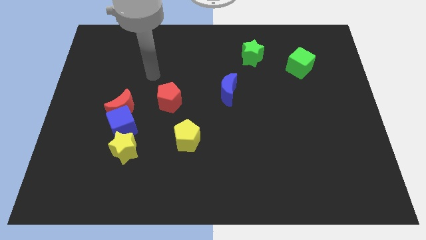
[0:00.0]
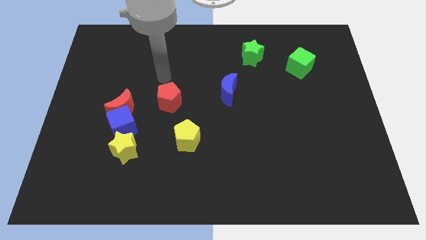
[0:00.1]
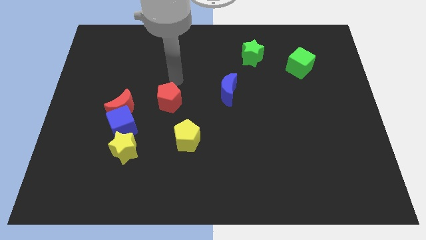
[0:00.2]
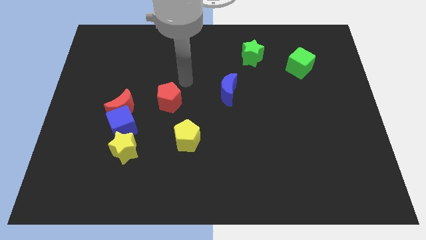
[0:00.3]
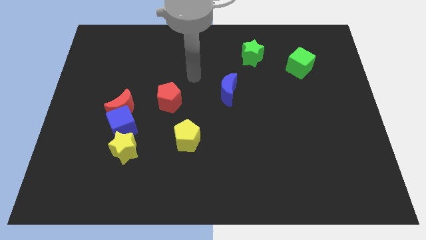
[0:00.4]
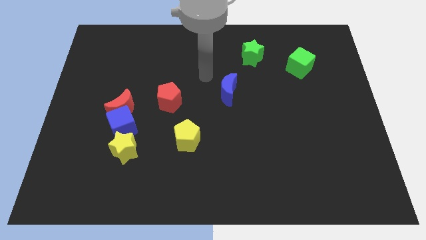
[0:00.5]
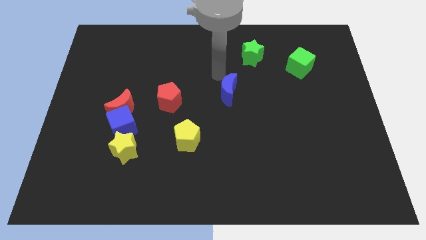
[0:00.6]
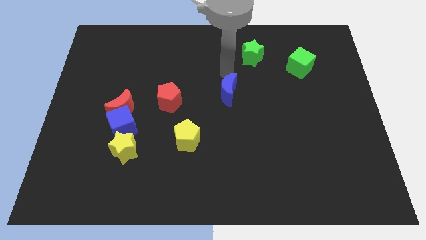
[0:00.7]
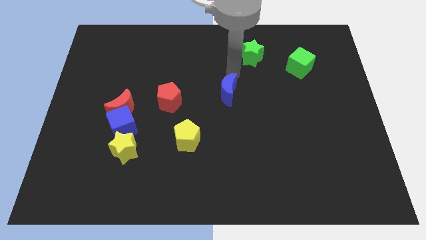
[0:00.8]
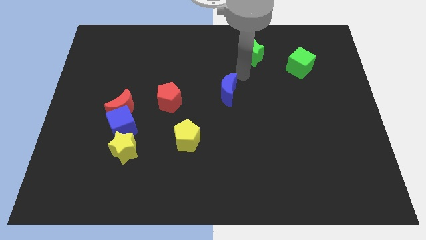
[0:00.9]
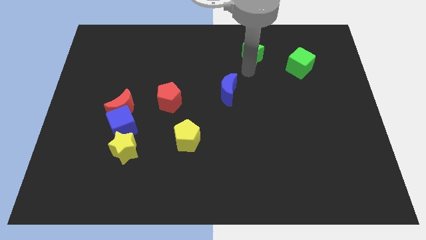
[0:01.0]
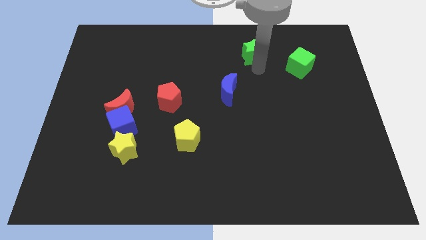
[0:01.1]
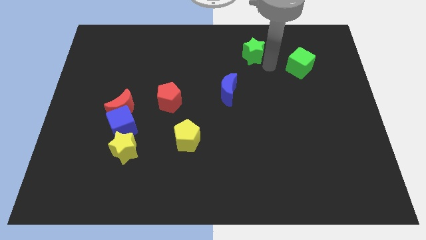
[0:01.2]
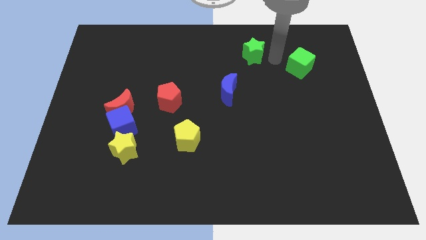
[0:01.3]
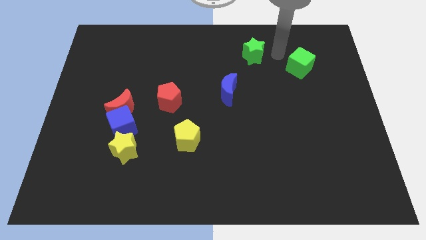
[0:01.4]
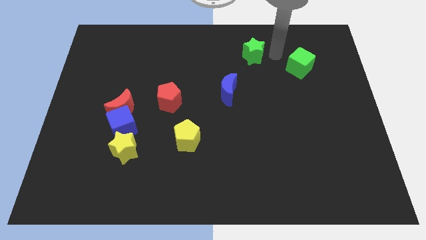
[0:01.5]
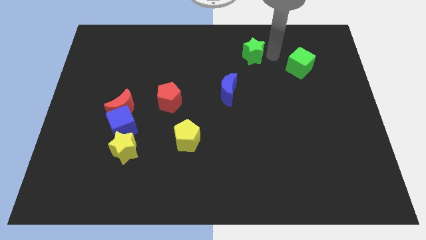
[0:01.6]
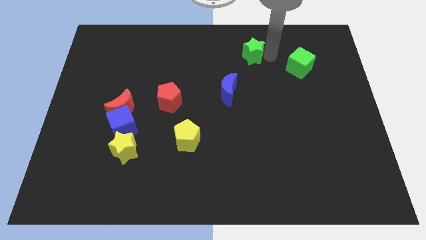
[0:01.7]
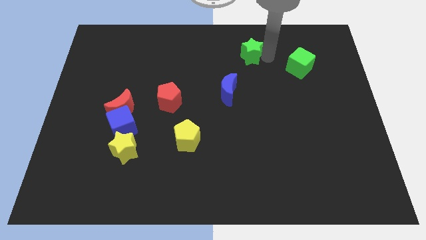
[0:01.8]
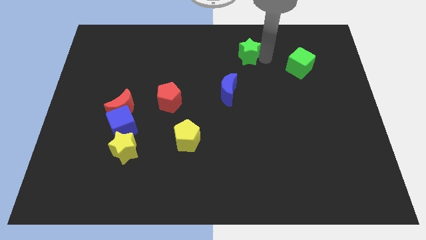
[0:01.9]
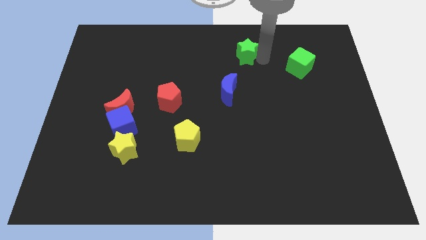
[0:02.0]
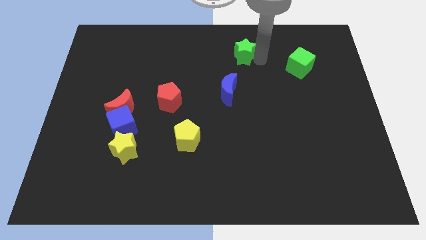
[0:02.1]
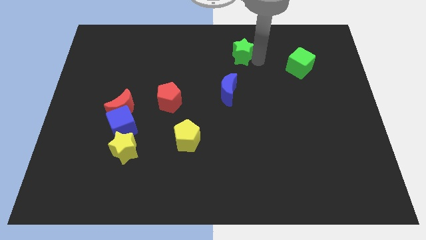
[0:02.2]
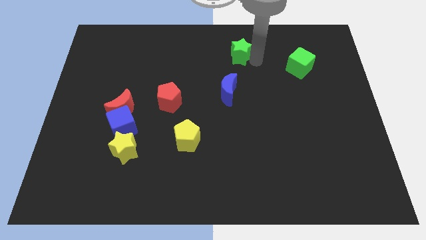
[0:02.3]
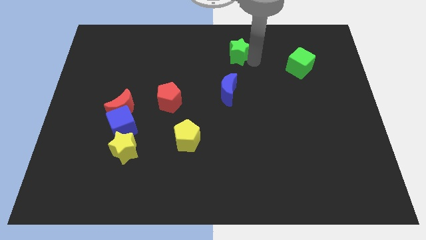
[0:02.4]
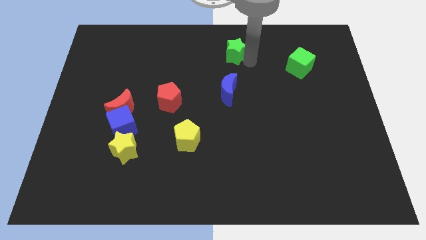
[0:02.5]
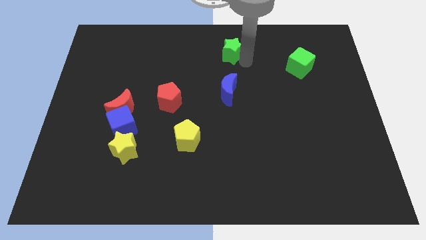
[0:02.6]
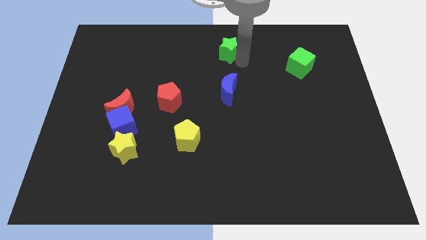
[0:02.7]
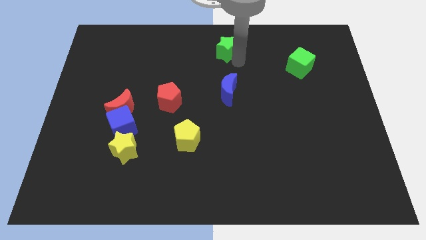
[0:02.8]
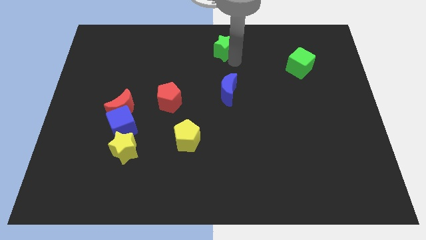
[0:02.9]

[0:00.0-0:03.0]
move the green star to the left slightly

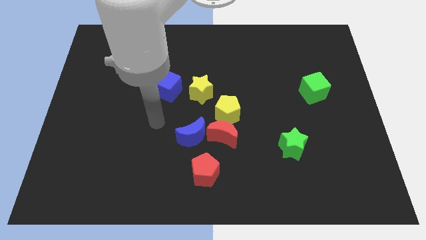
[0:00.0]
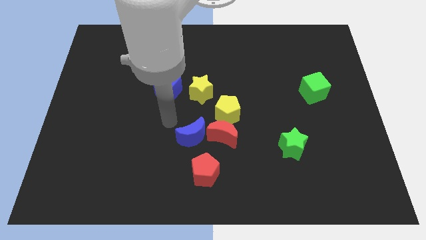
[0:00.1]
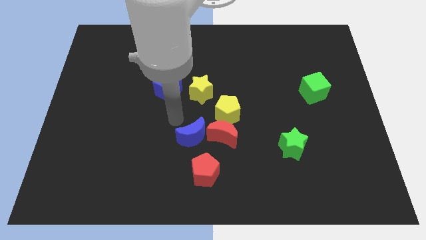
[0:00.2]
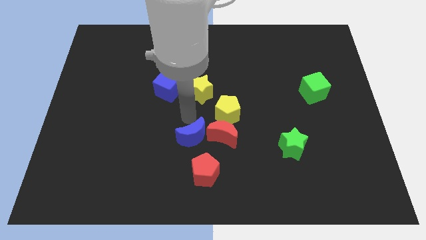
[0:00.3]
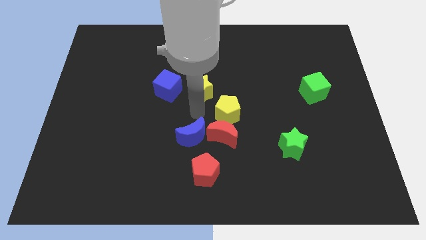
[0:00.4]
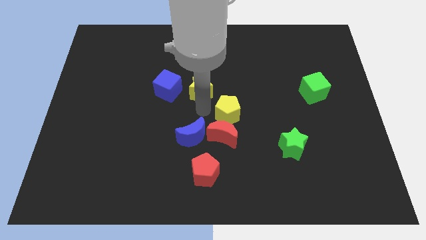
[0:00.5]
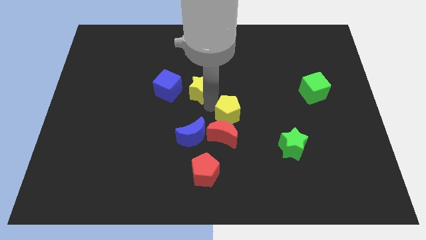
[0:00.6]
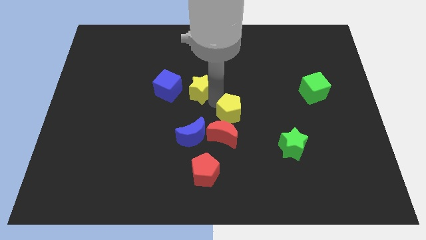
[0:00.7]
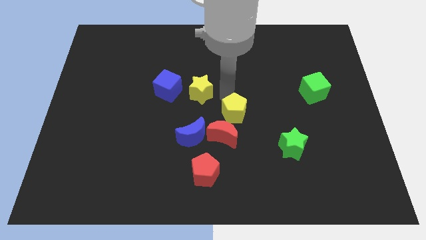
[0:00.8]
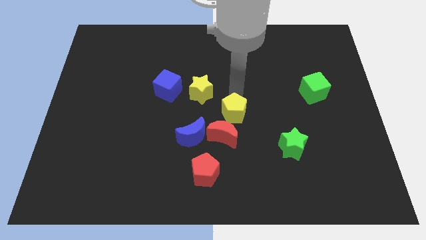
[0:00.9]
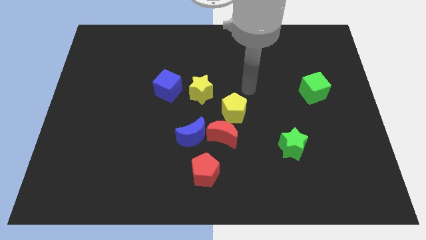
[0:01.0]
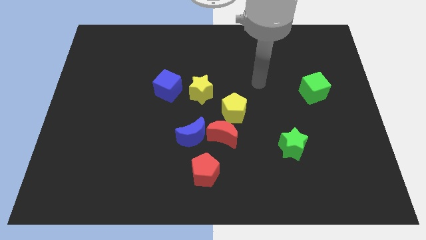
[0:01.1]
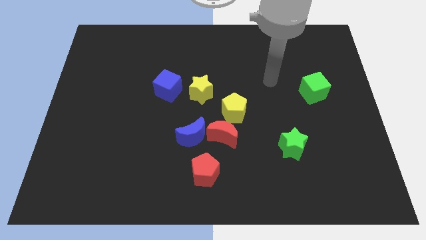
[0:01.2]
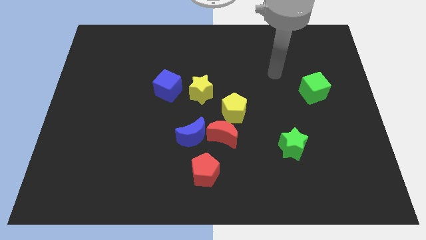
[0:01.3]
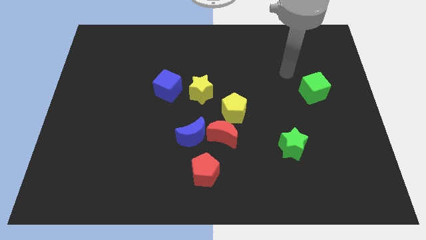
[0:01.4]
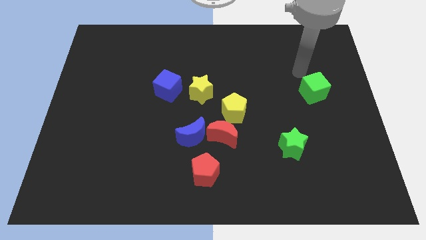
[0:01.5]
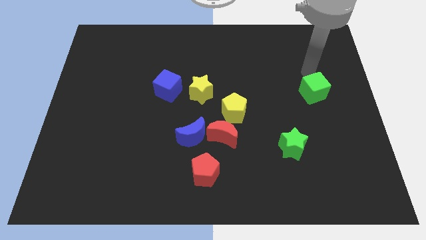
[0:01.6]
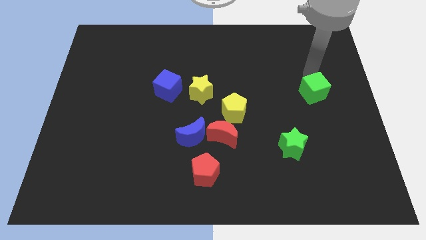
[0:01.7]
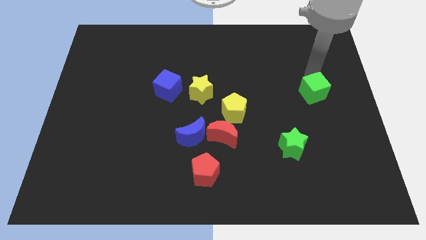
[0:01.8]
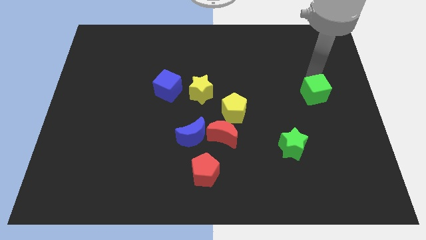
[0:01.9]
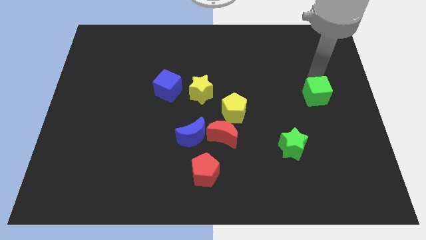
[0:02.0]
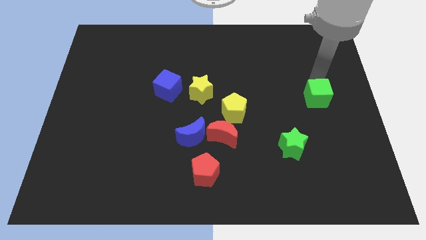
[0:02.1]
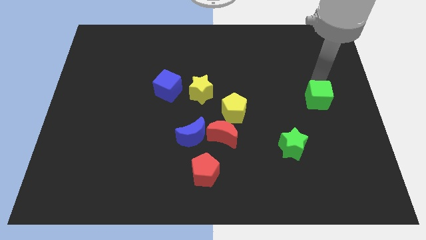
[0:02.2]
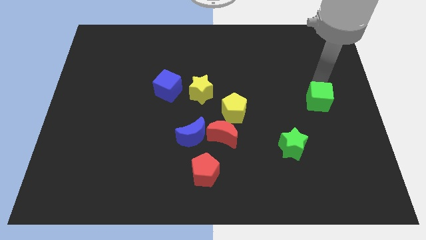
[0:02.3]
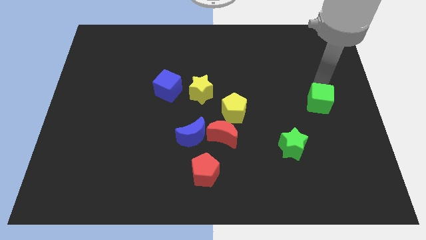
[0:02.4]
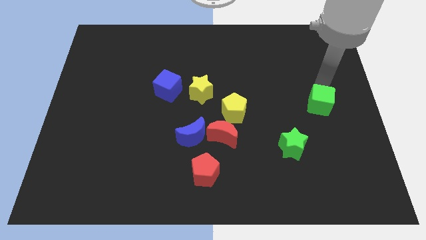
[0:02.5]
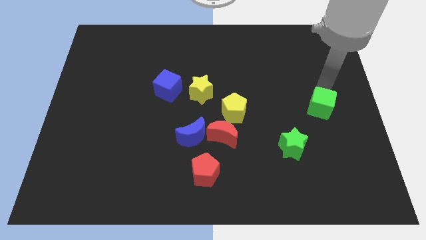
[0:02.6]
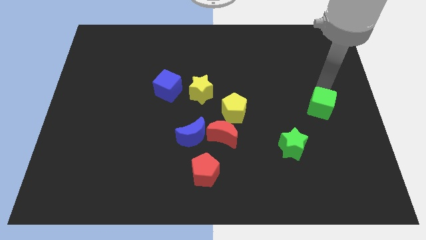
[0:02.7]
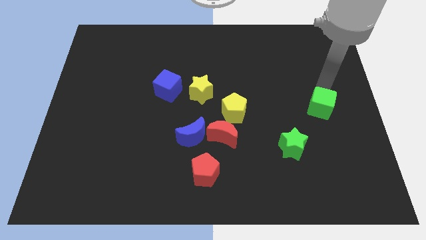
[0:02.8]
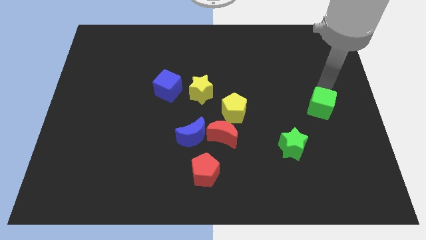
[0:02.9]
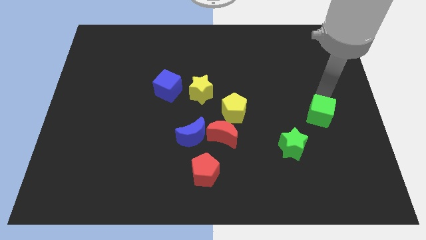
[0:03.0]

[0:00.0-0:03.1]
push the green cube a little down

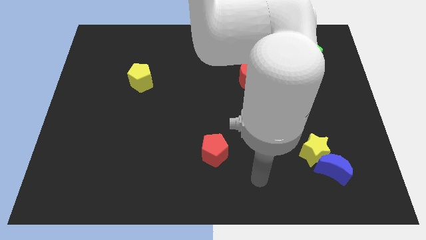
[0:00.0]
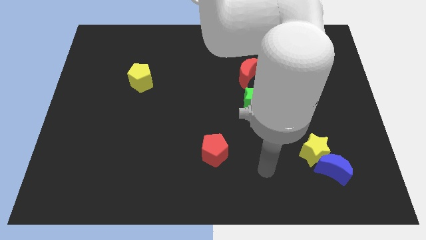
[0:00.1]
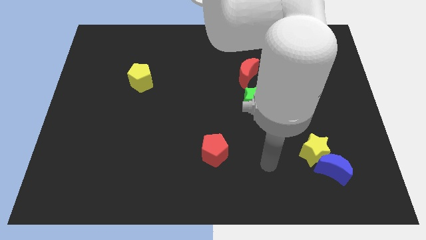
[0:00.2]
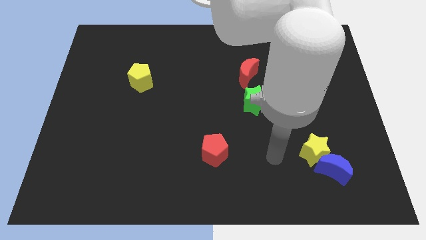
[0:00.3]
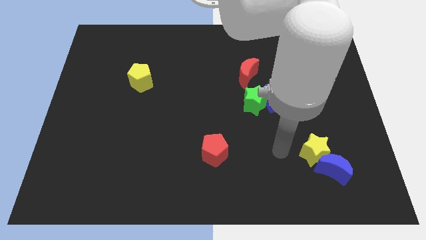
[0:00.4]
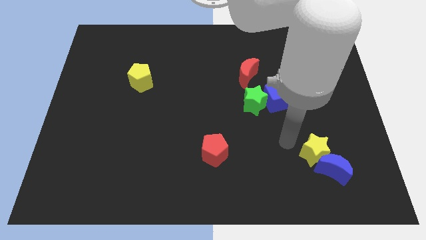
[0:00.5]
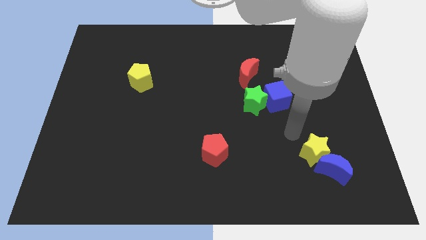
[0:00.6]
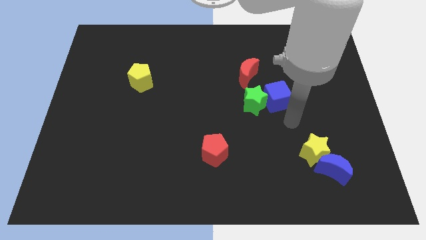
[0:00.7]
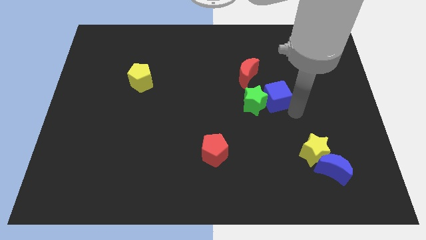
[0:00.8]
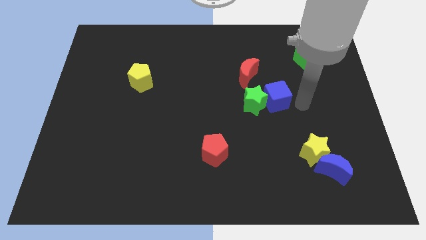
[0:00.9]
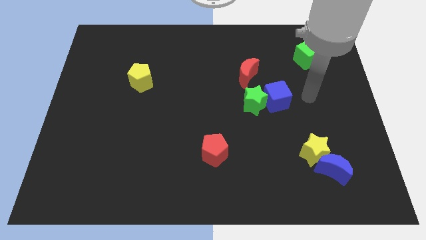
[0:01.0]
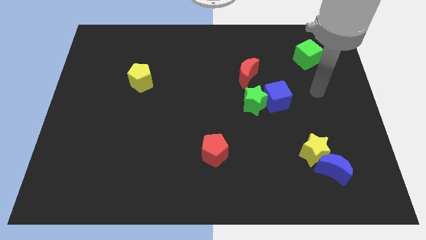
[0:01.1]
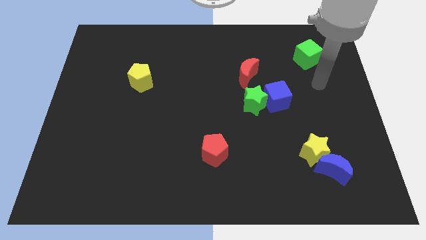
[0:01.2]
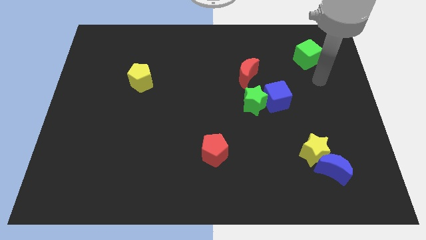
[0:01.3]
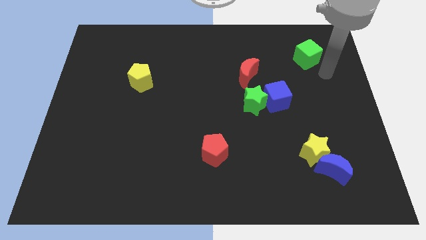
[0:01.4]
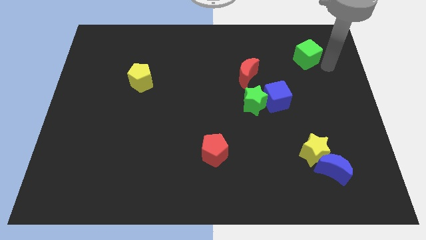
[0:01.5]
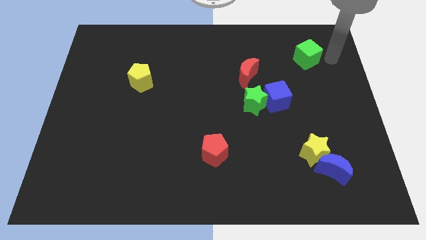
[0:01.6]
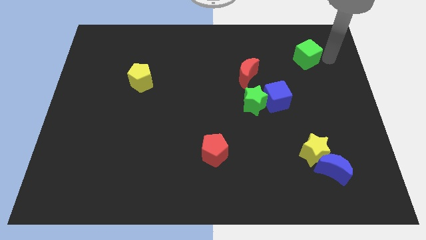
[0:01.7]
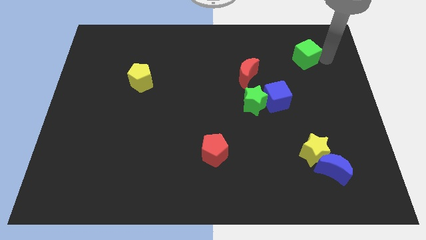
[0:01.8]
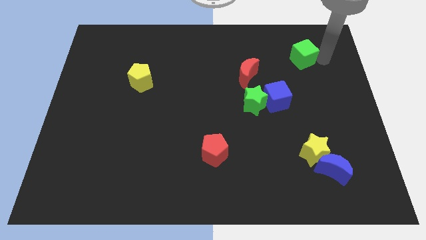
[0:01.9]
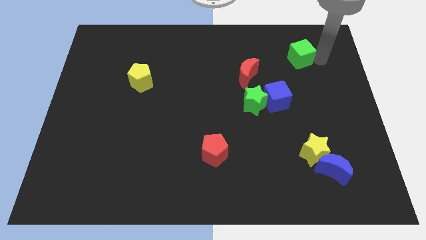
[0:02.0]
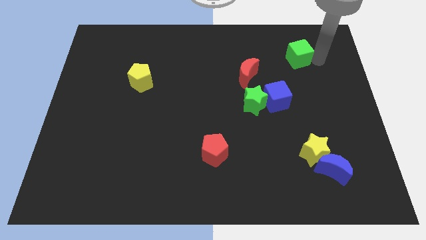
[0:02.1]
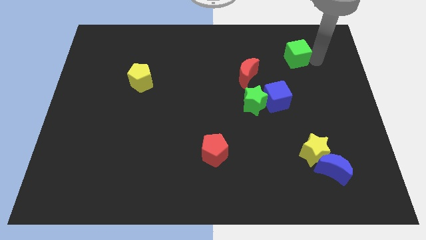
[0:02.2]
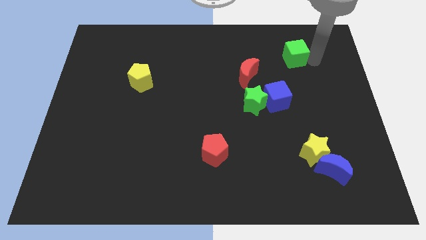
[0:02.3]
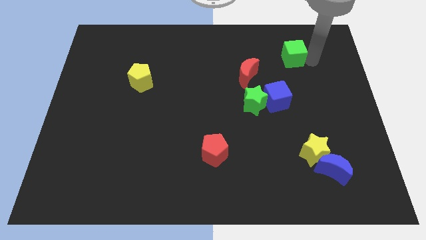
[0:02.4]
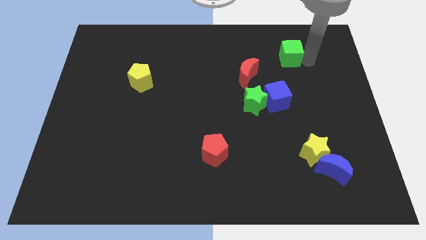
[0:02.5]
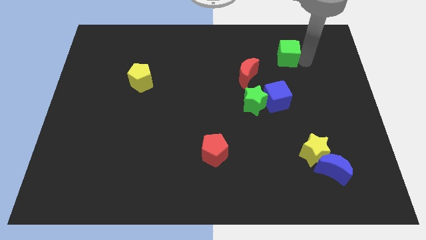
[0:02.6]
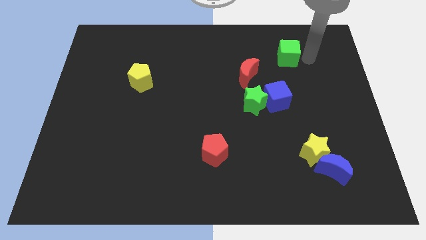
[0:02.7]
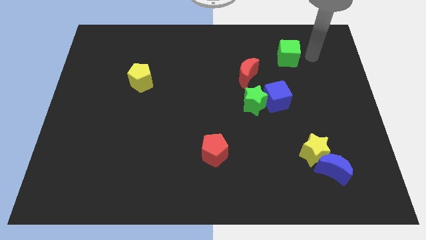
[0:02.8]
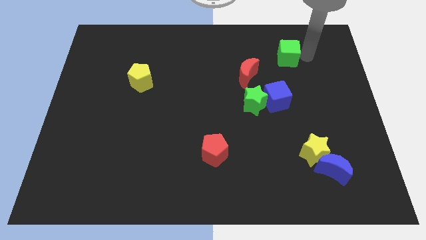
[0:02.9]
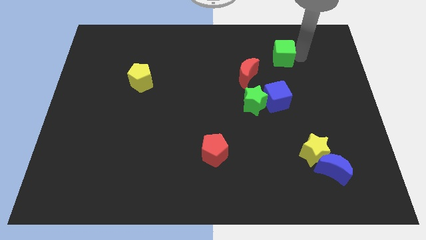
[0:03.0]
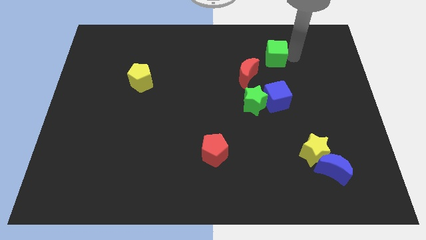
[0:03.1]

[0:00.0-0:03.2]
move the green cube slightly to the left
